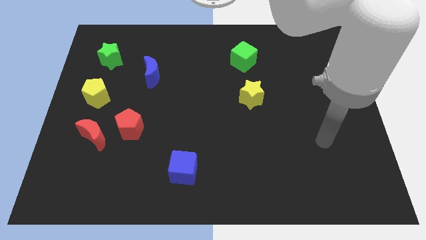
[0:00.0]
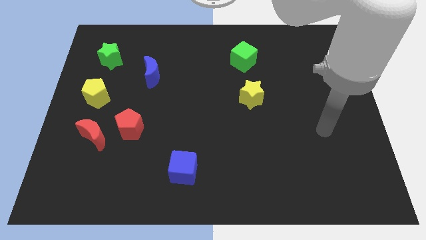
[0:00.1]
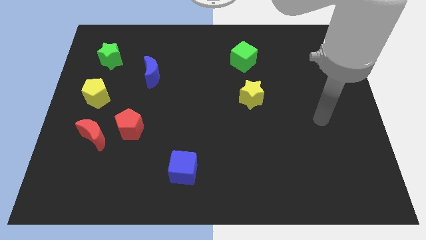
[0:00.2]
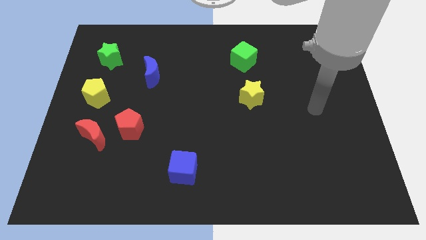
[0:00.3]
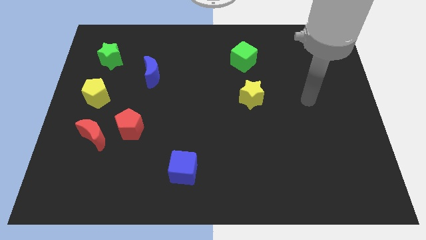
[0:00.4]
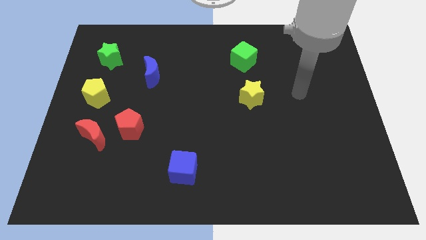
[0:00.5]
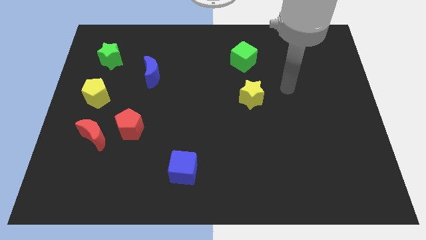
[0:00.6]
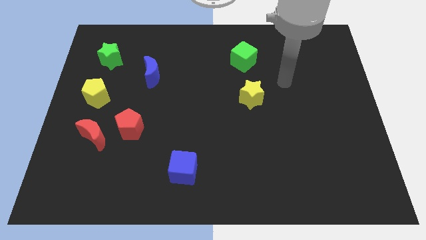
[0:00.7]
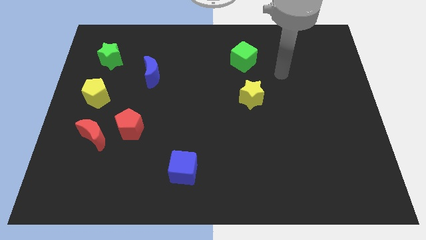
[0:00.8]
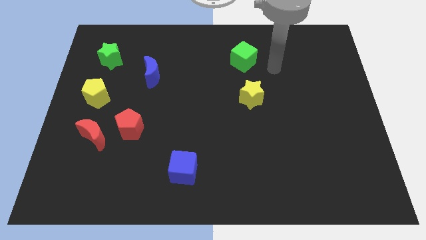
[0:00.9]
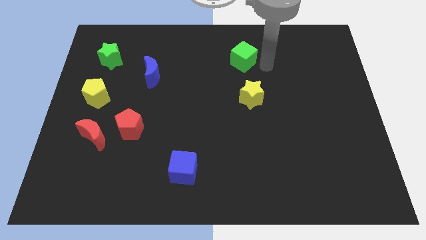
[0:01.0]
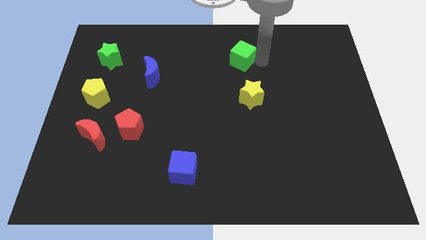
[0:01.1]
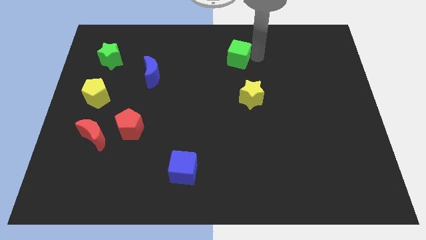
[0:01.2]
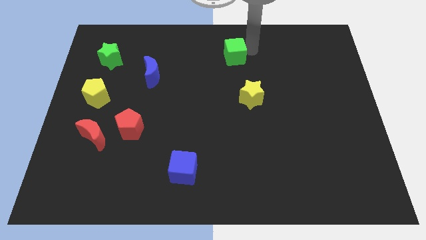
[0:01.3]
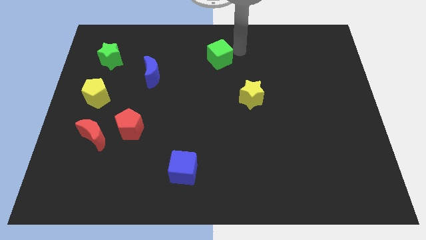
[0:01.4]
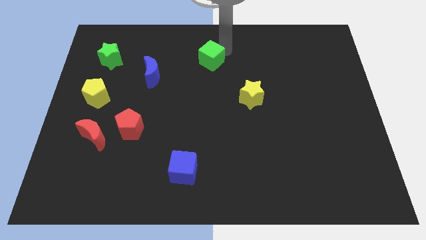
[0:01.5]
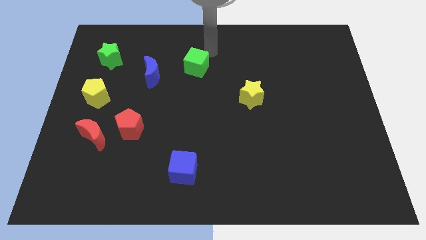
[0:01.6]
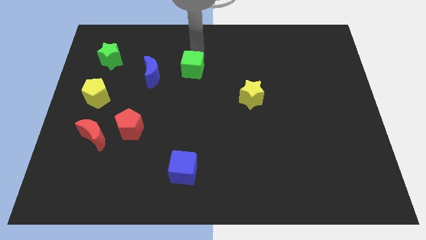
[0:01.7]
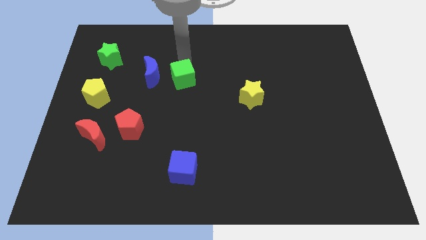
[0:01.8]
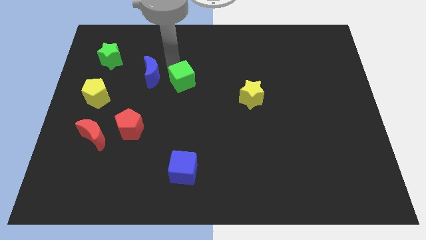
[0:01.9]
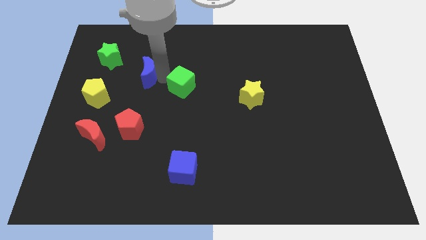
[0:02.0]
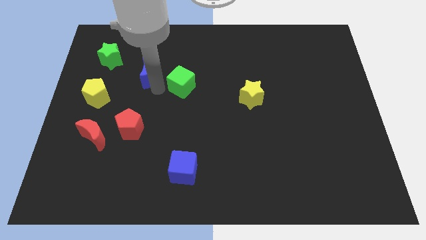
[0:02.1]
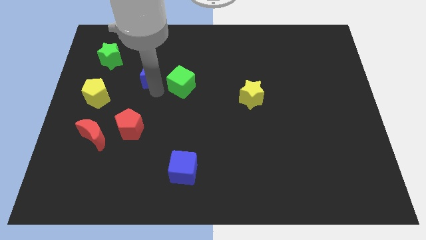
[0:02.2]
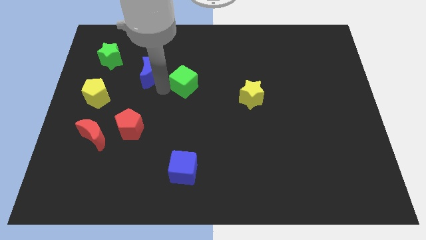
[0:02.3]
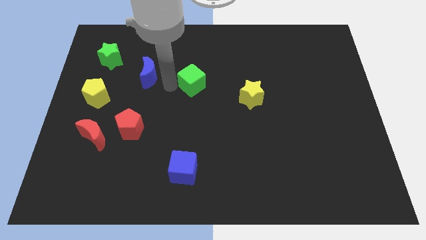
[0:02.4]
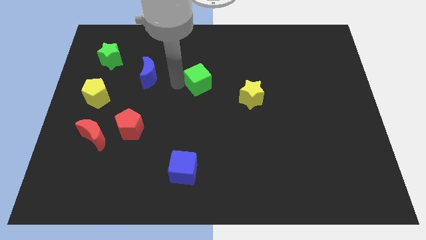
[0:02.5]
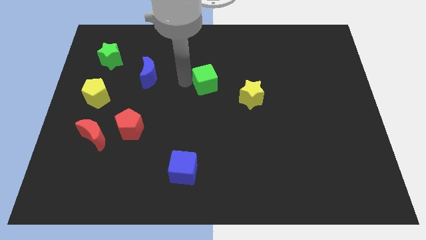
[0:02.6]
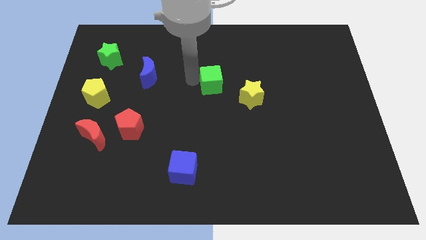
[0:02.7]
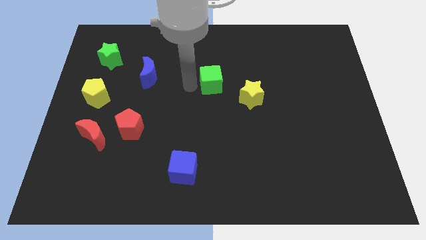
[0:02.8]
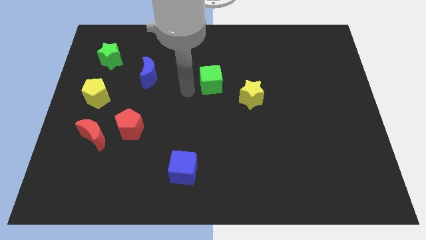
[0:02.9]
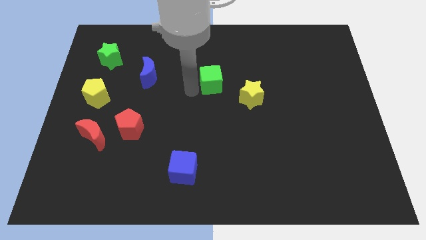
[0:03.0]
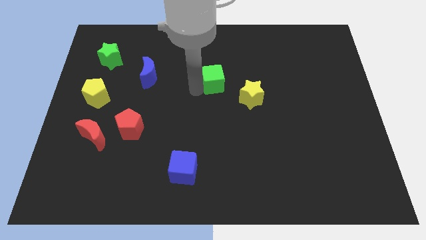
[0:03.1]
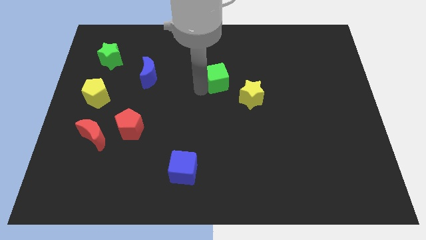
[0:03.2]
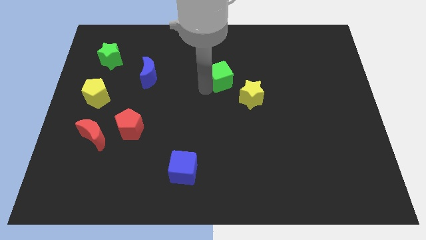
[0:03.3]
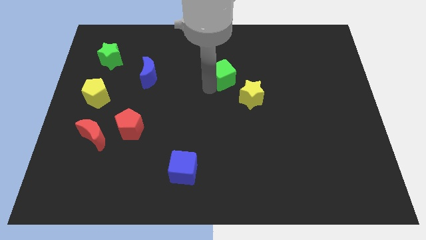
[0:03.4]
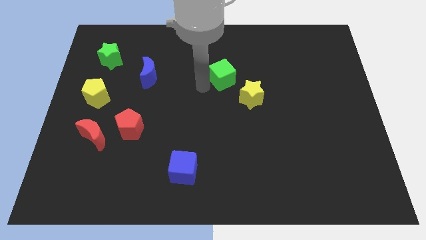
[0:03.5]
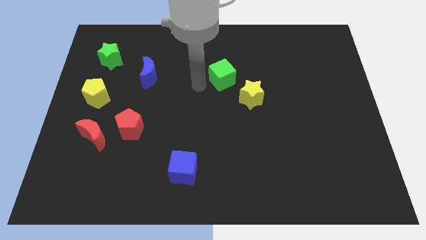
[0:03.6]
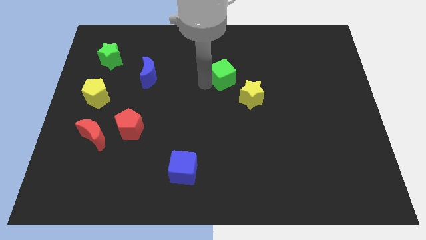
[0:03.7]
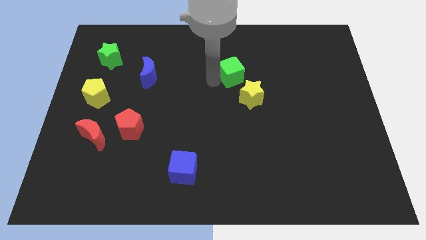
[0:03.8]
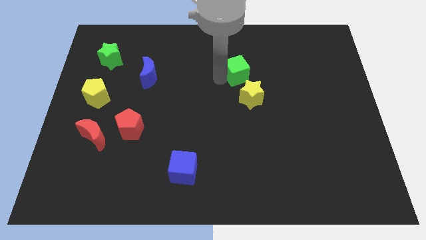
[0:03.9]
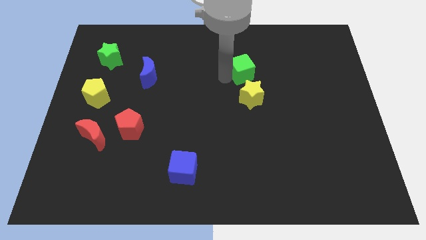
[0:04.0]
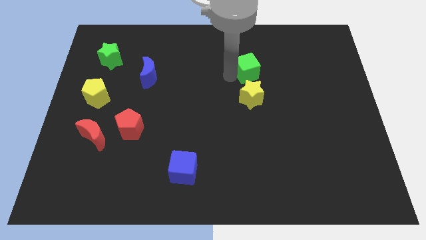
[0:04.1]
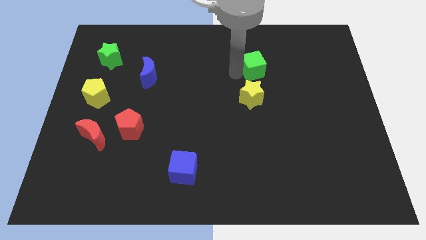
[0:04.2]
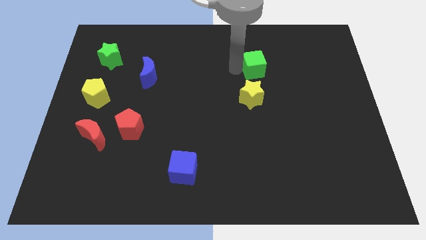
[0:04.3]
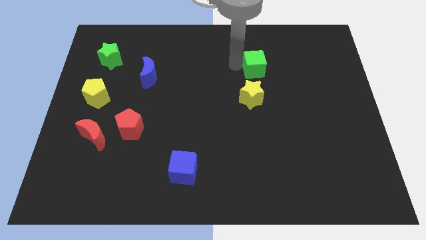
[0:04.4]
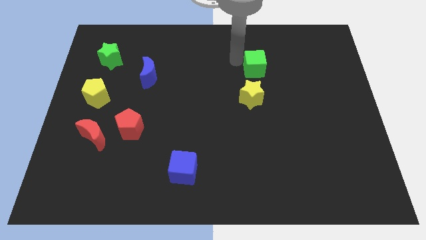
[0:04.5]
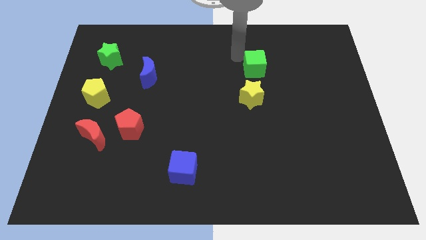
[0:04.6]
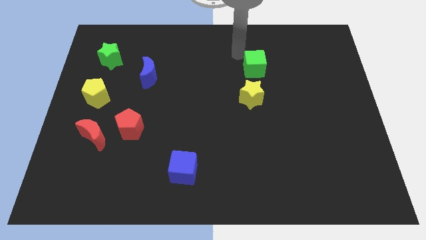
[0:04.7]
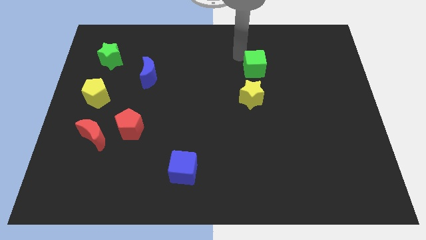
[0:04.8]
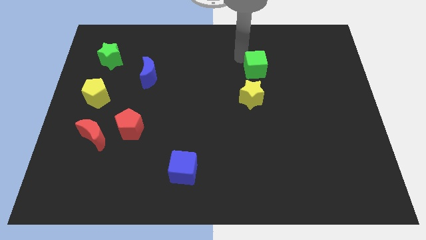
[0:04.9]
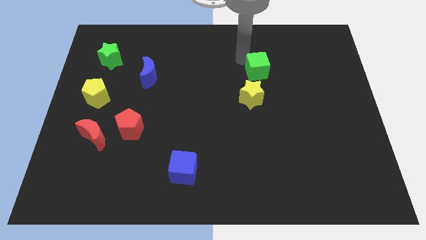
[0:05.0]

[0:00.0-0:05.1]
move the green cube to the top right side of the yellow star

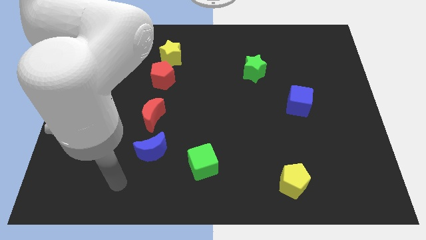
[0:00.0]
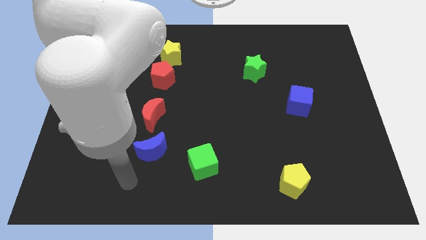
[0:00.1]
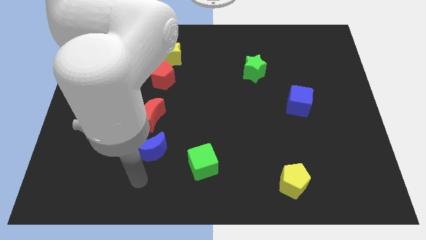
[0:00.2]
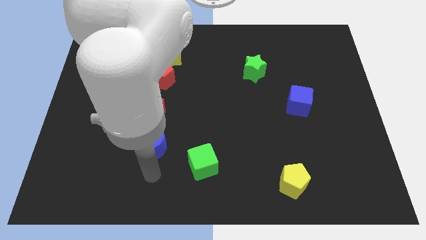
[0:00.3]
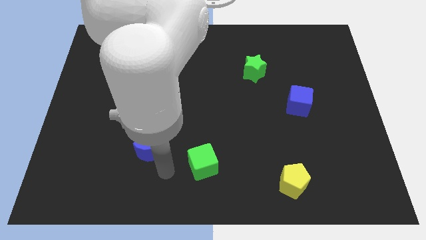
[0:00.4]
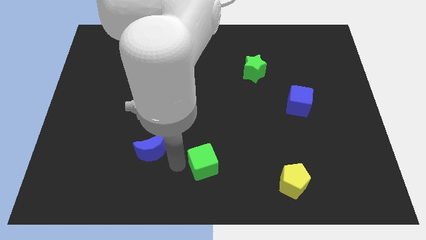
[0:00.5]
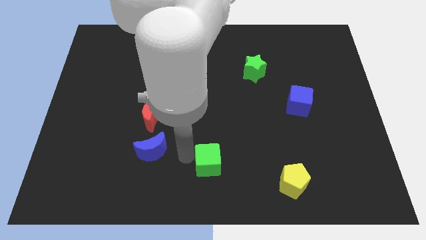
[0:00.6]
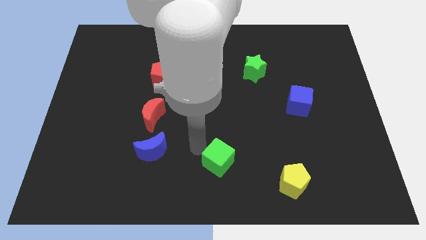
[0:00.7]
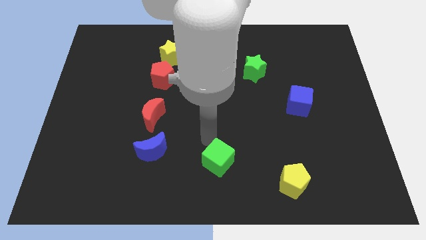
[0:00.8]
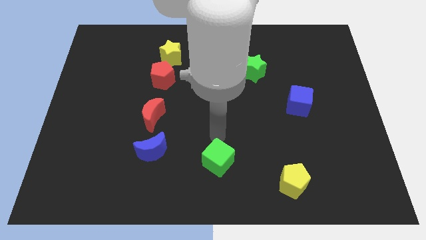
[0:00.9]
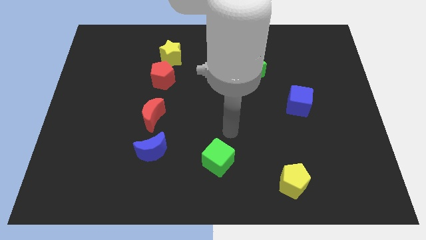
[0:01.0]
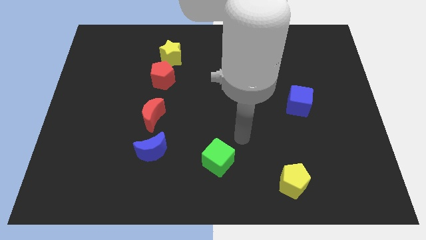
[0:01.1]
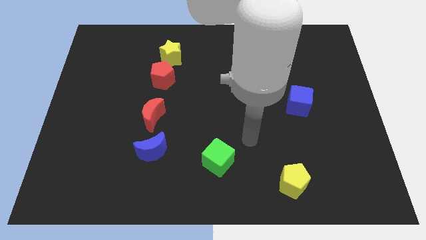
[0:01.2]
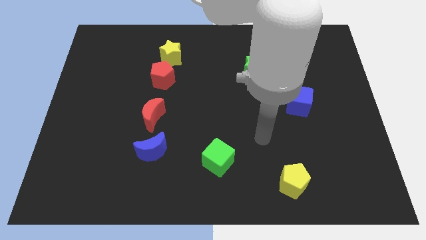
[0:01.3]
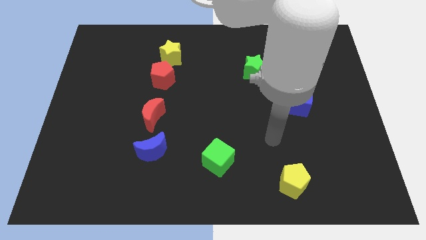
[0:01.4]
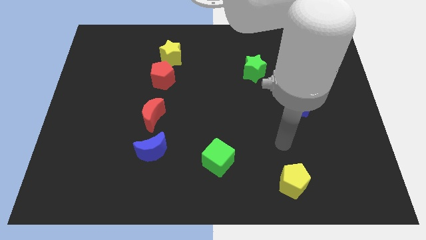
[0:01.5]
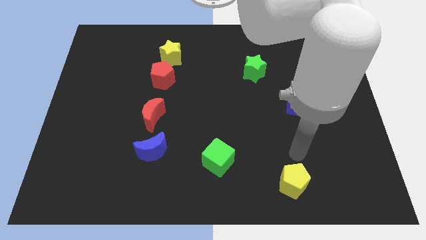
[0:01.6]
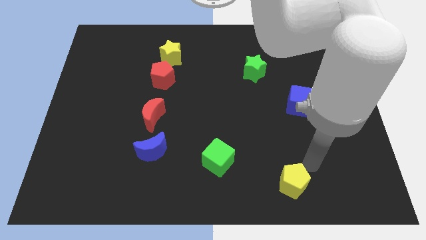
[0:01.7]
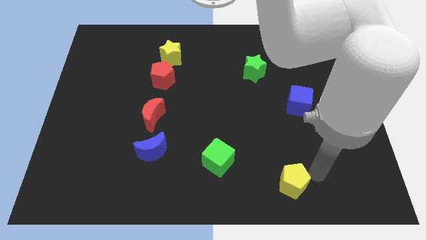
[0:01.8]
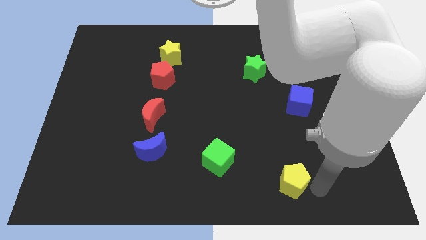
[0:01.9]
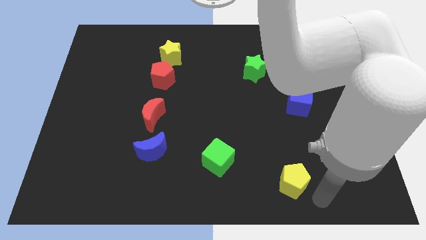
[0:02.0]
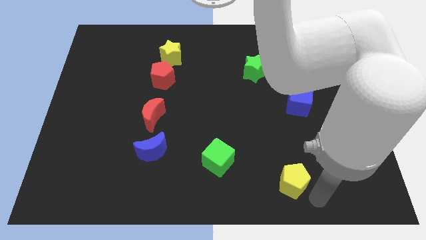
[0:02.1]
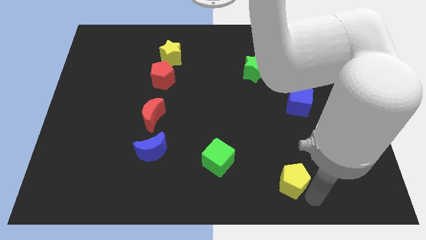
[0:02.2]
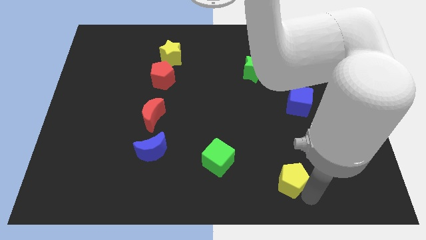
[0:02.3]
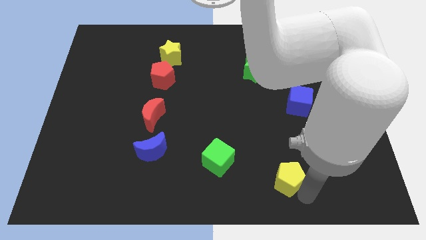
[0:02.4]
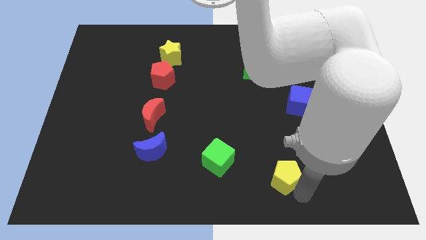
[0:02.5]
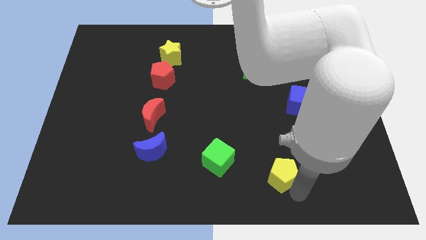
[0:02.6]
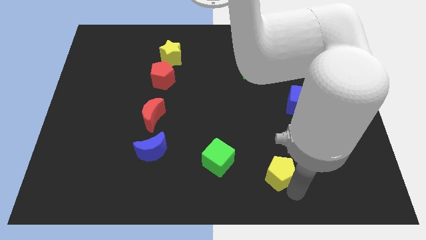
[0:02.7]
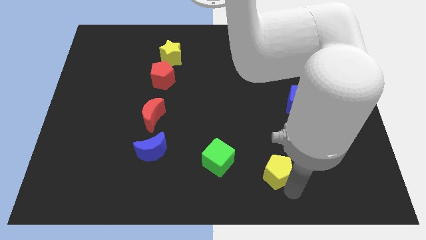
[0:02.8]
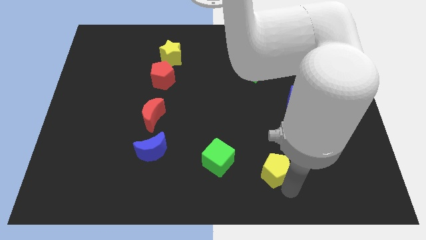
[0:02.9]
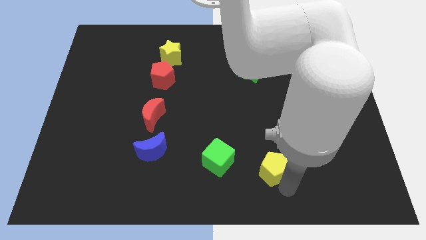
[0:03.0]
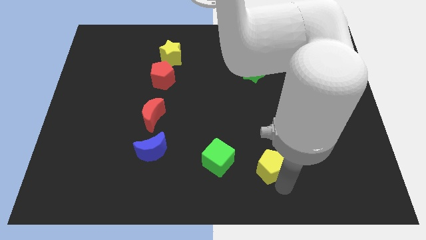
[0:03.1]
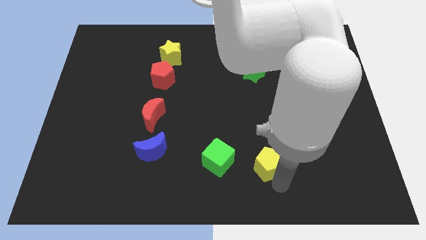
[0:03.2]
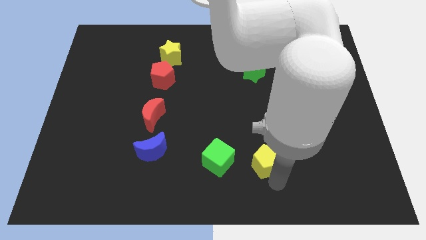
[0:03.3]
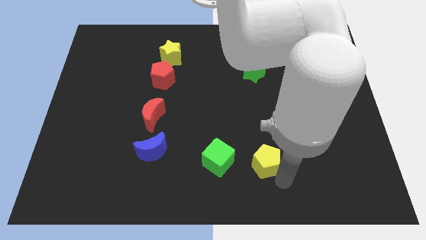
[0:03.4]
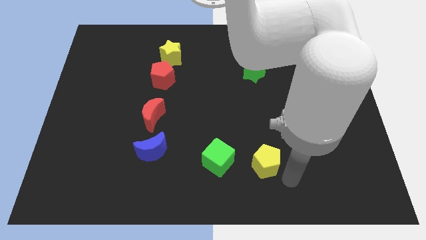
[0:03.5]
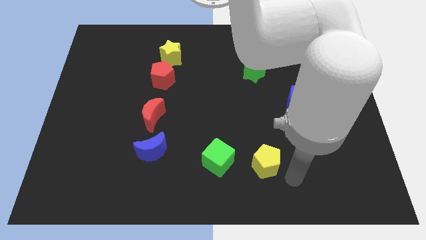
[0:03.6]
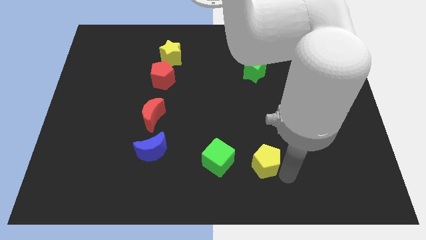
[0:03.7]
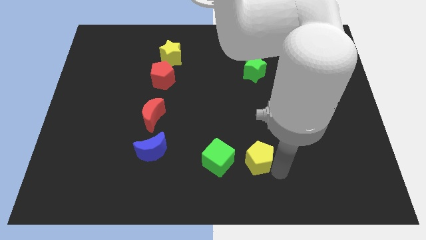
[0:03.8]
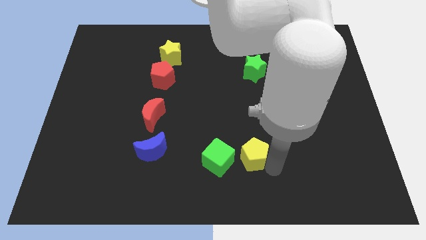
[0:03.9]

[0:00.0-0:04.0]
push the yellow pentagon to the top right of the green cube
